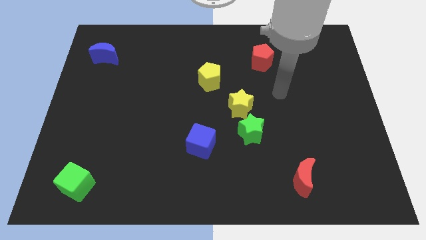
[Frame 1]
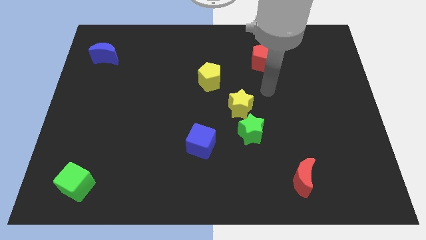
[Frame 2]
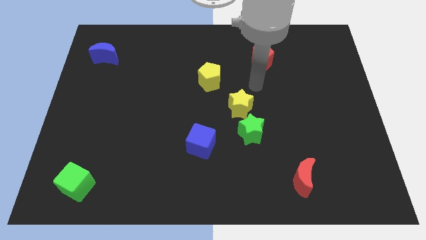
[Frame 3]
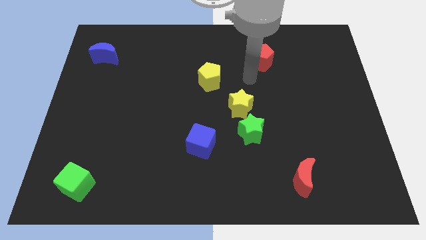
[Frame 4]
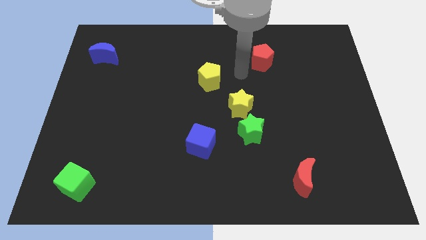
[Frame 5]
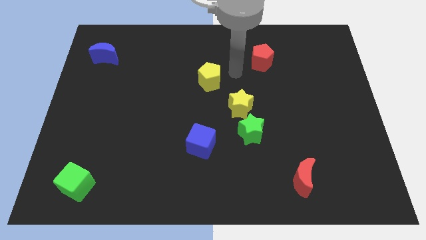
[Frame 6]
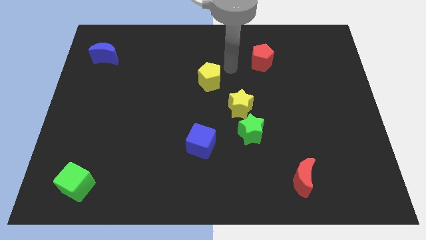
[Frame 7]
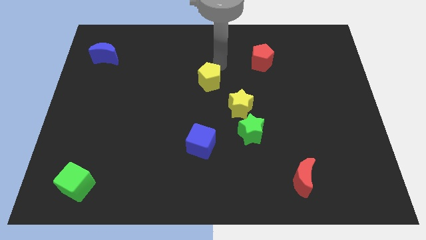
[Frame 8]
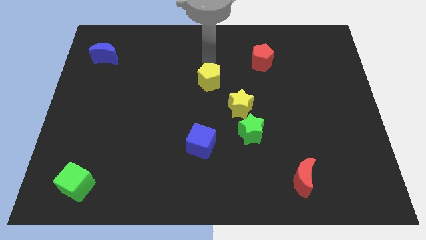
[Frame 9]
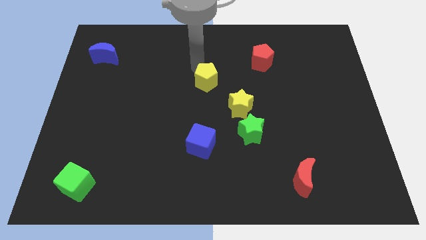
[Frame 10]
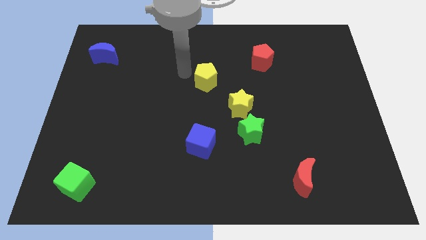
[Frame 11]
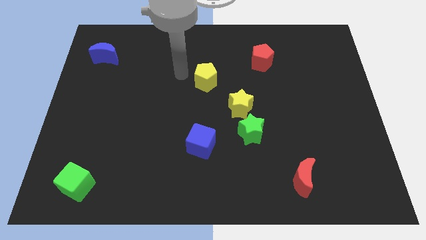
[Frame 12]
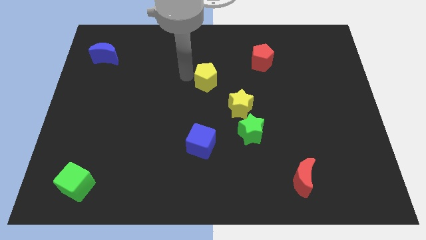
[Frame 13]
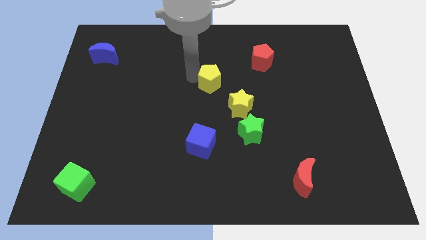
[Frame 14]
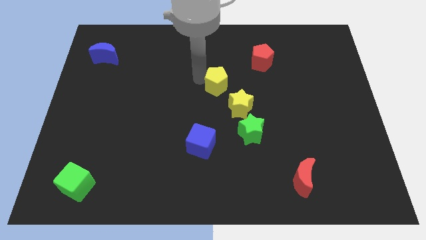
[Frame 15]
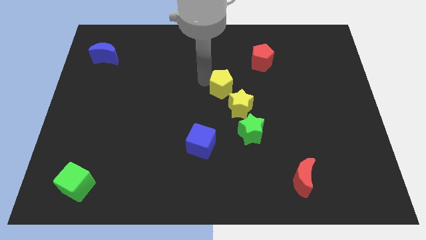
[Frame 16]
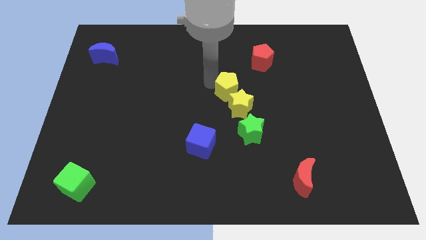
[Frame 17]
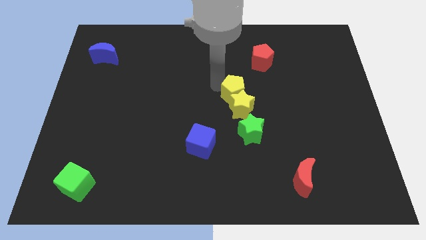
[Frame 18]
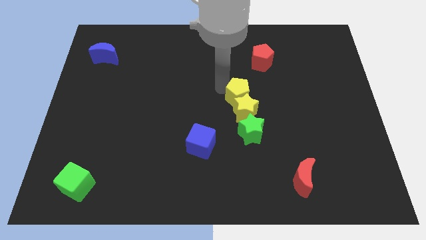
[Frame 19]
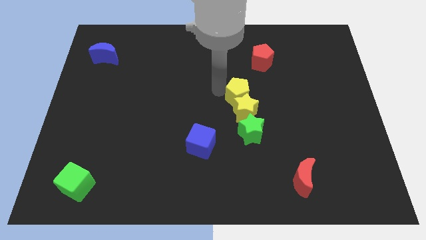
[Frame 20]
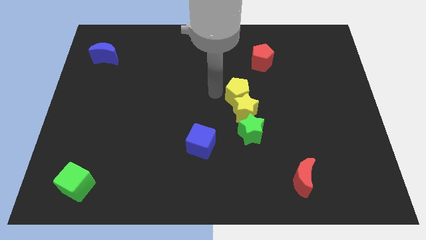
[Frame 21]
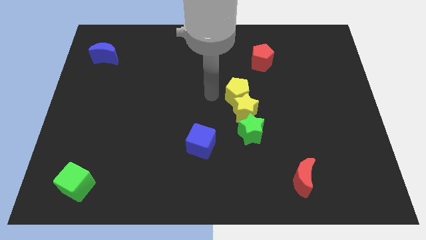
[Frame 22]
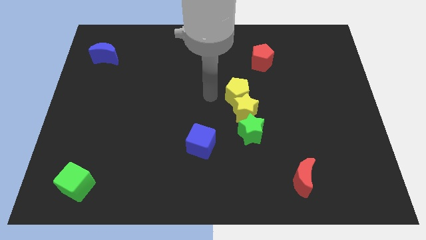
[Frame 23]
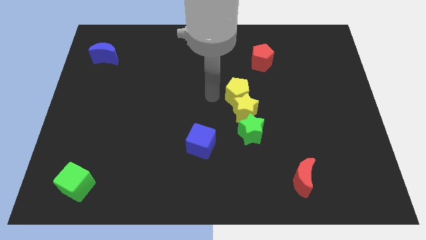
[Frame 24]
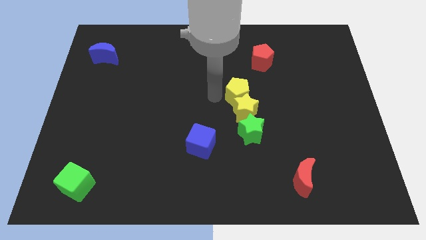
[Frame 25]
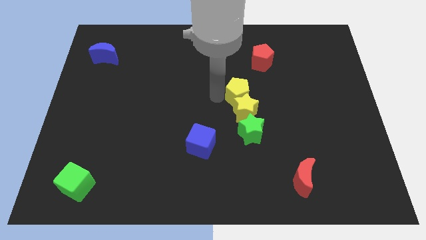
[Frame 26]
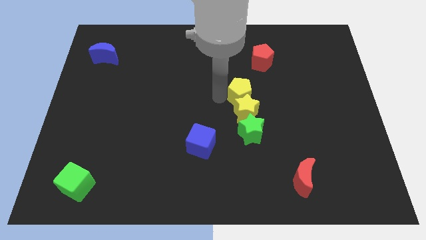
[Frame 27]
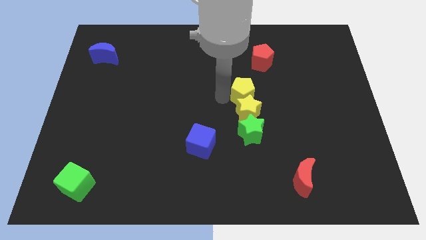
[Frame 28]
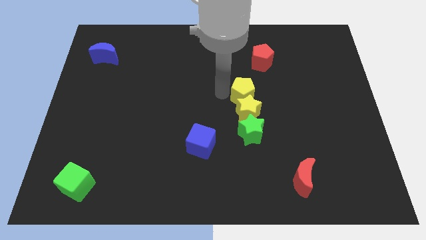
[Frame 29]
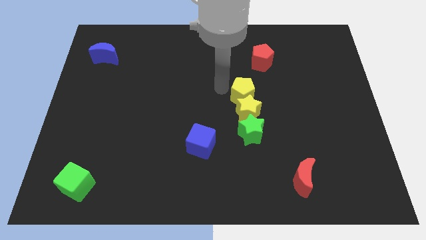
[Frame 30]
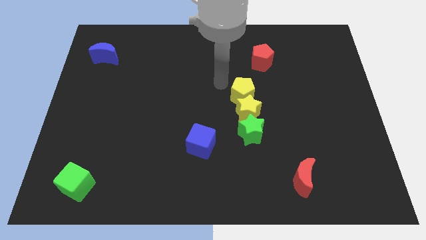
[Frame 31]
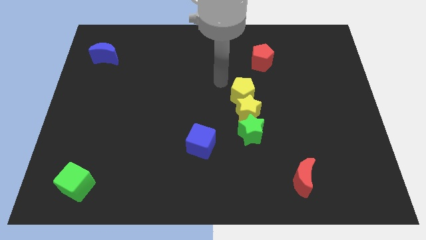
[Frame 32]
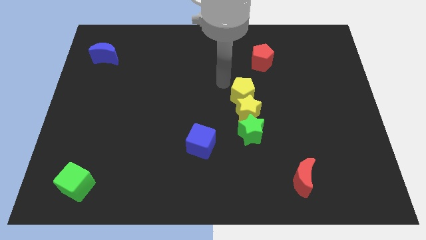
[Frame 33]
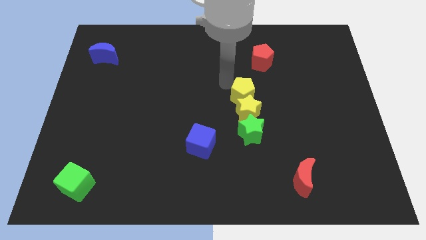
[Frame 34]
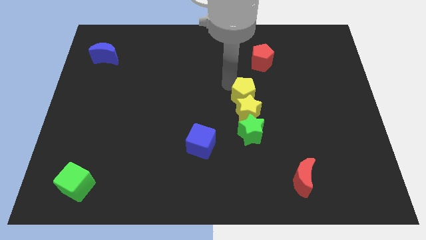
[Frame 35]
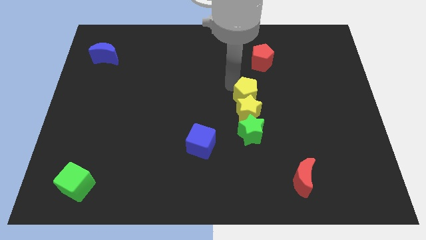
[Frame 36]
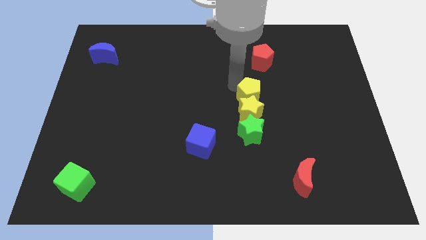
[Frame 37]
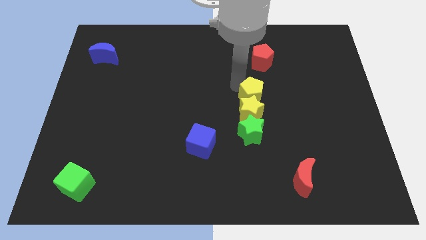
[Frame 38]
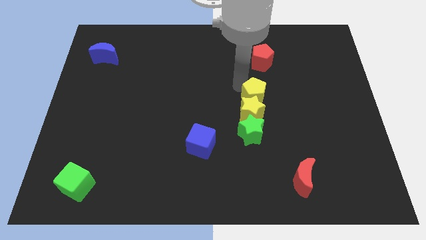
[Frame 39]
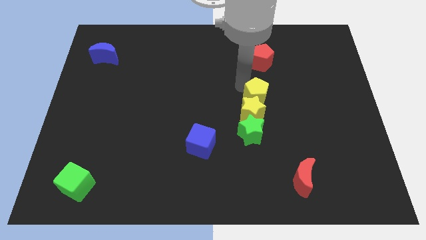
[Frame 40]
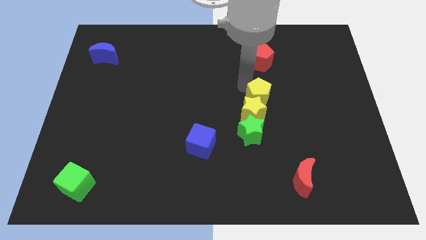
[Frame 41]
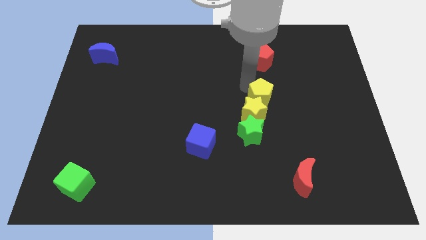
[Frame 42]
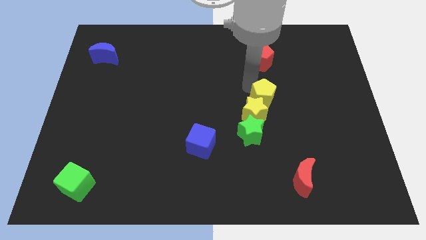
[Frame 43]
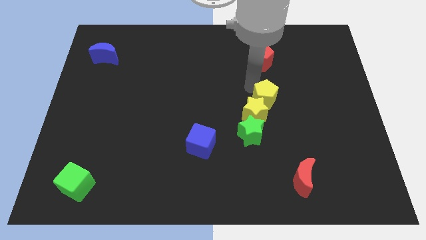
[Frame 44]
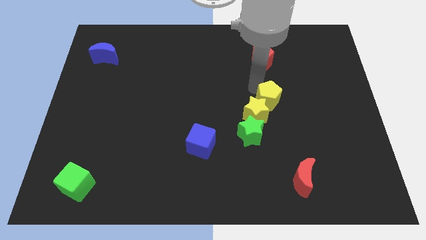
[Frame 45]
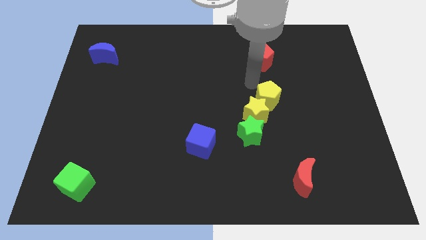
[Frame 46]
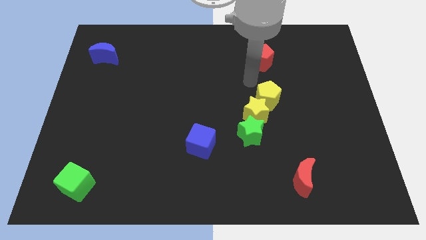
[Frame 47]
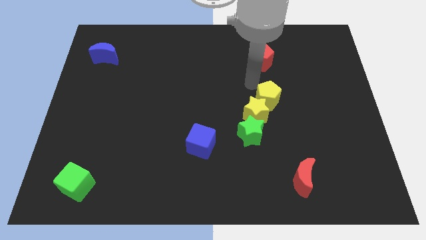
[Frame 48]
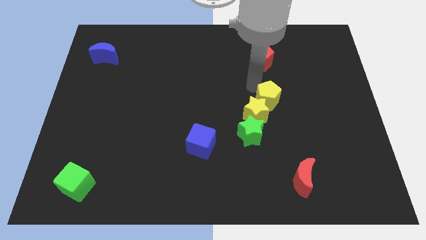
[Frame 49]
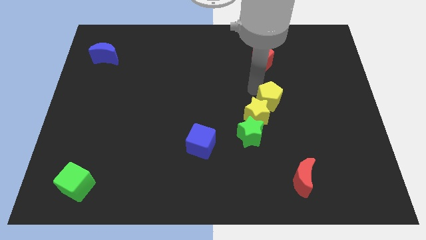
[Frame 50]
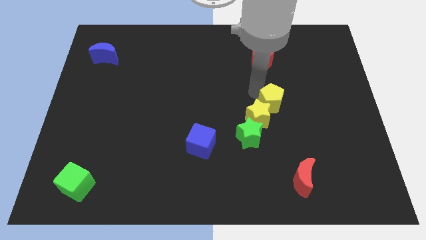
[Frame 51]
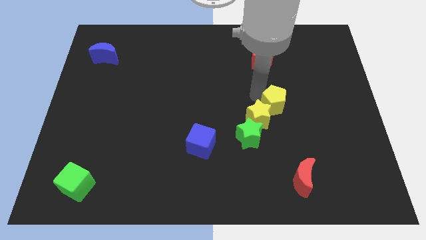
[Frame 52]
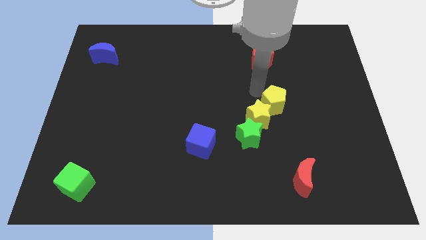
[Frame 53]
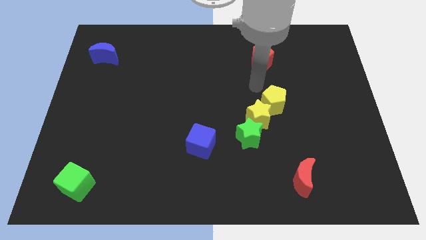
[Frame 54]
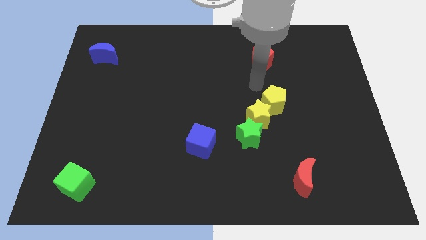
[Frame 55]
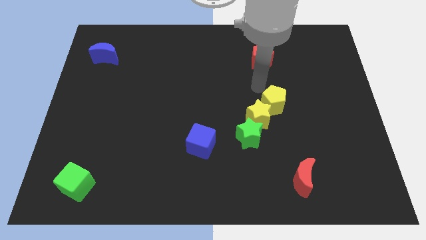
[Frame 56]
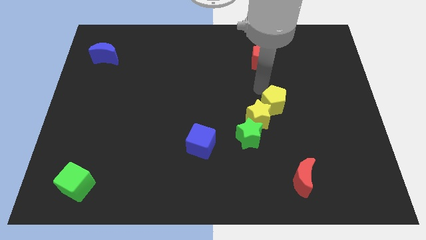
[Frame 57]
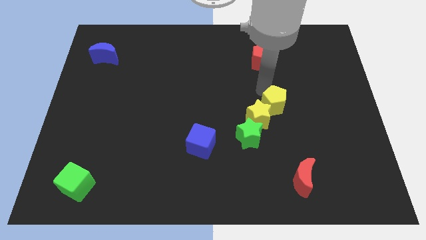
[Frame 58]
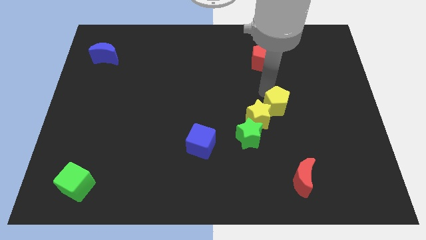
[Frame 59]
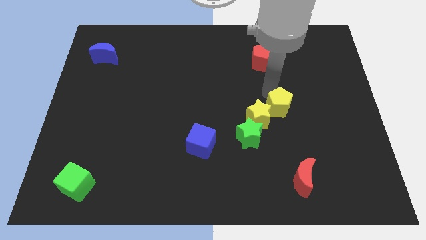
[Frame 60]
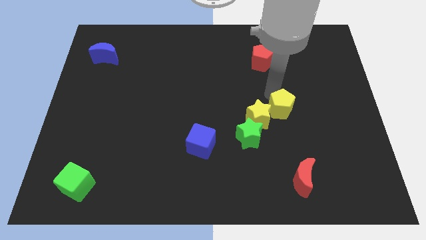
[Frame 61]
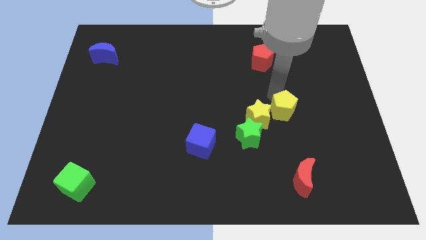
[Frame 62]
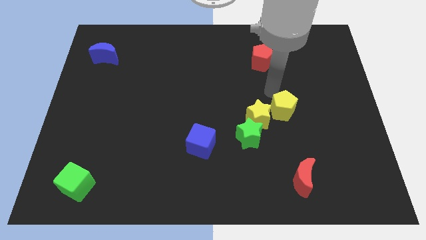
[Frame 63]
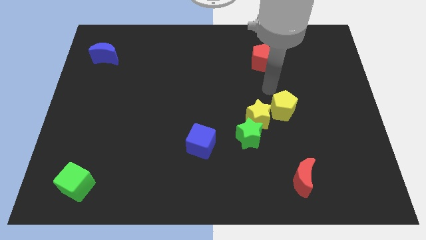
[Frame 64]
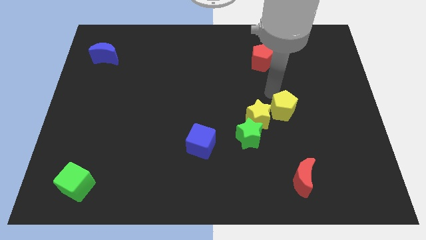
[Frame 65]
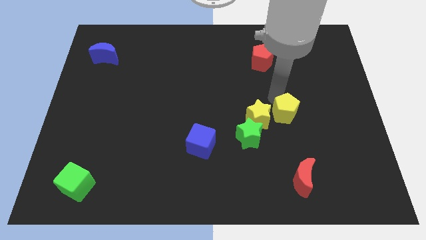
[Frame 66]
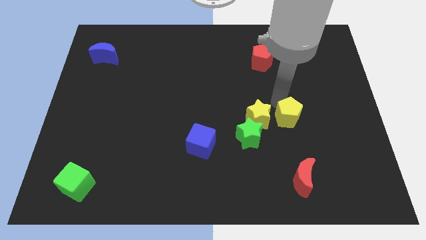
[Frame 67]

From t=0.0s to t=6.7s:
slide the yellow pentagon diagonally downwards and right

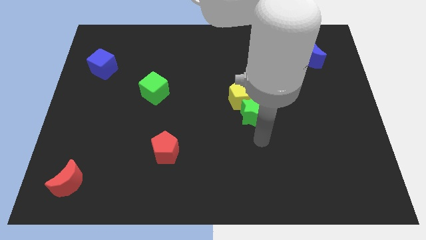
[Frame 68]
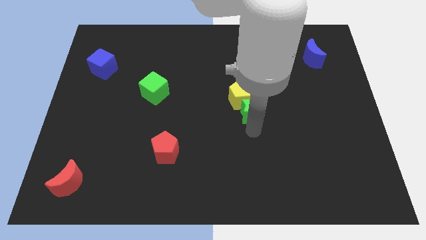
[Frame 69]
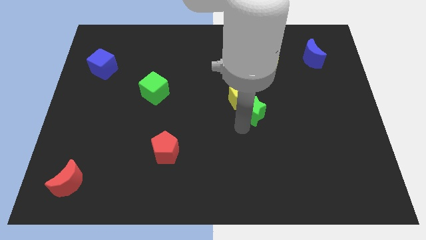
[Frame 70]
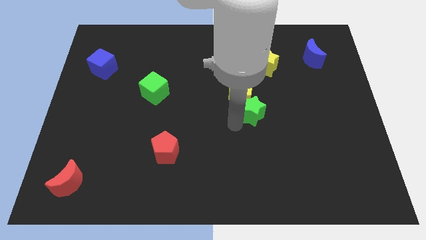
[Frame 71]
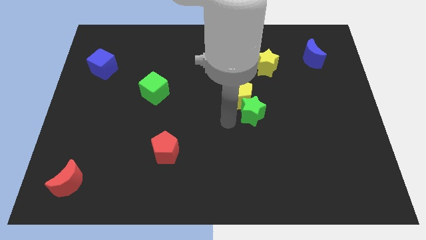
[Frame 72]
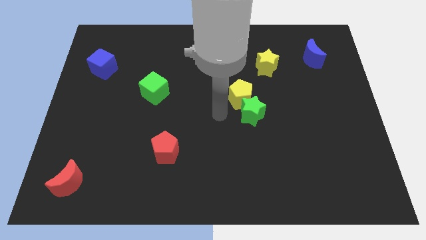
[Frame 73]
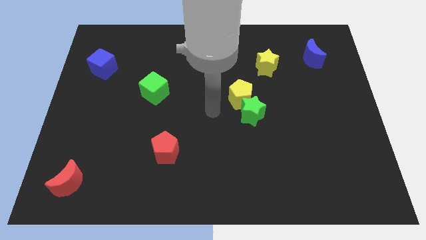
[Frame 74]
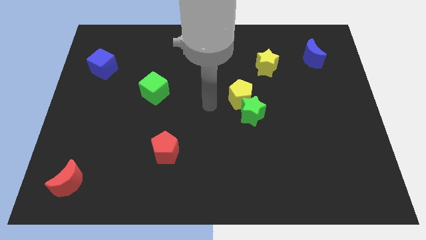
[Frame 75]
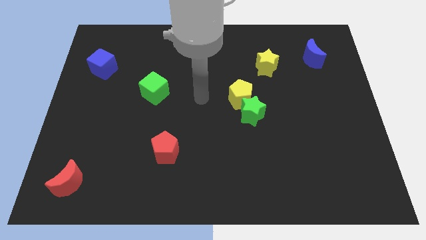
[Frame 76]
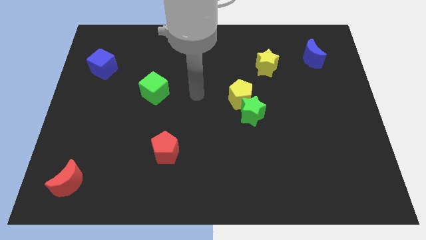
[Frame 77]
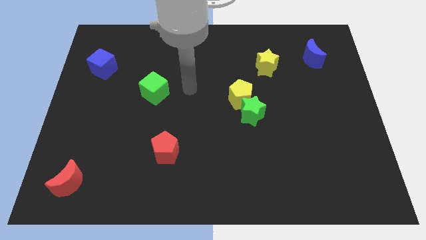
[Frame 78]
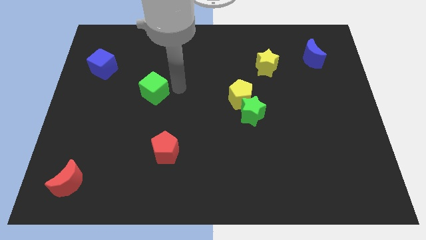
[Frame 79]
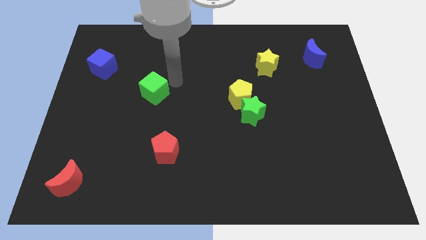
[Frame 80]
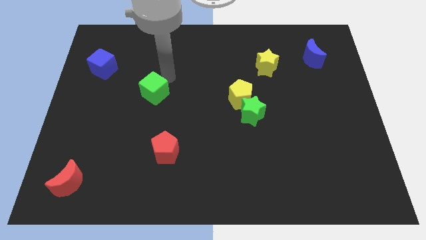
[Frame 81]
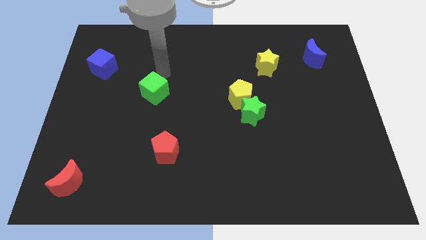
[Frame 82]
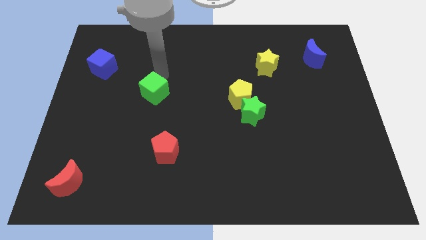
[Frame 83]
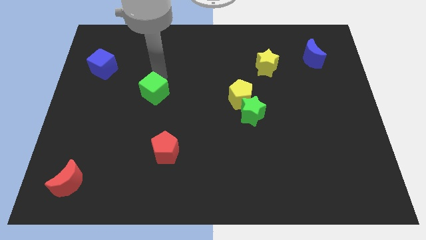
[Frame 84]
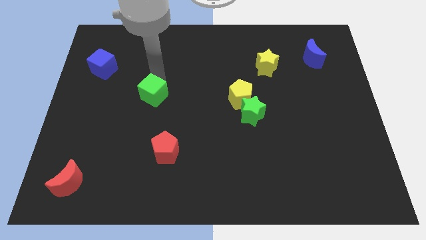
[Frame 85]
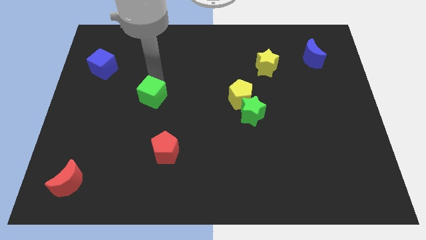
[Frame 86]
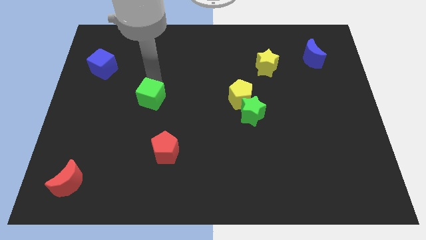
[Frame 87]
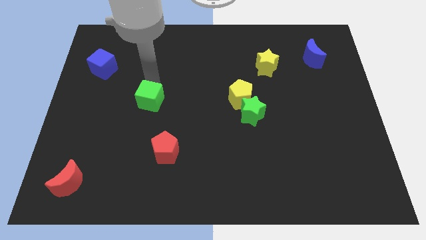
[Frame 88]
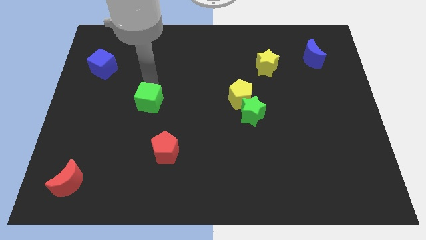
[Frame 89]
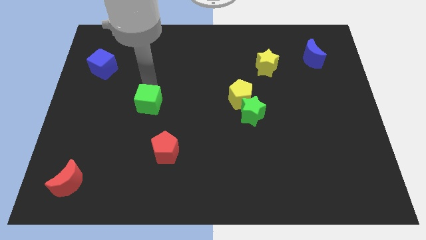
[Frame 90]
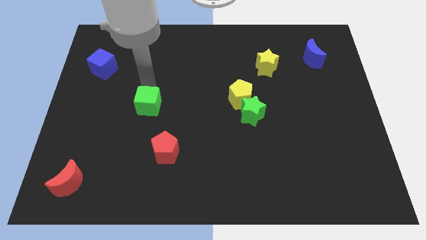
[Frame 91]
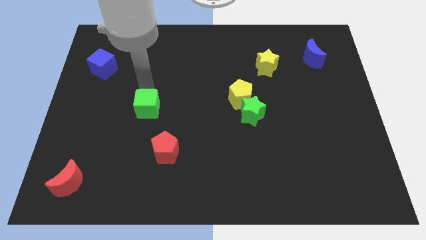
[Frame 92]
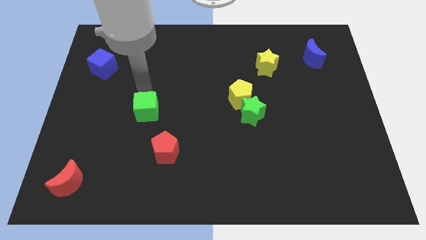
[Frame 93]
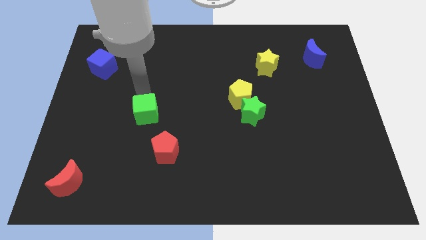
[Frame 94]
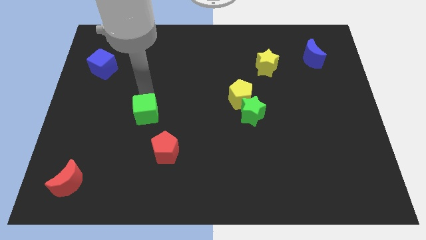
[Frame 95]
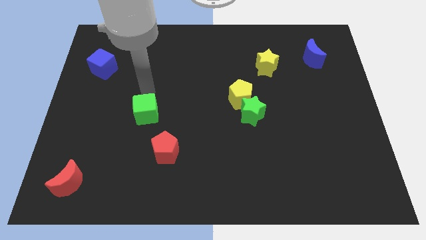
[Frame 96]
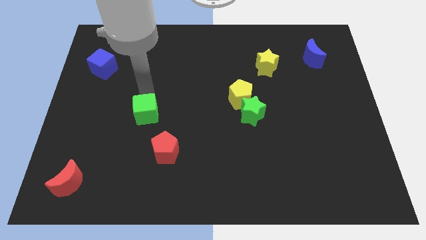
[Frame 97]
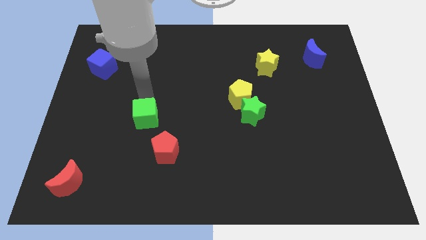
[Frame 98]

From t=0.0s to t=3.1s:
slide the green cube a little bit downwards
